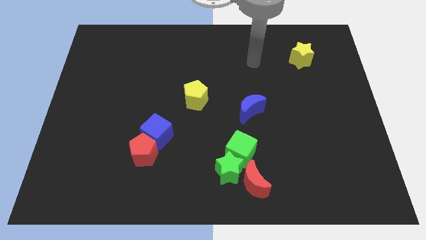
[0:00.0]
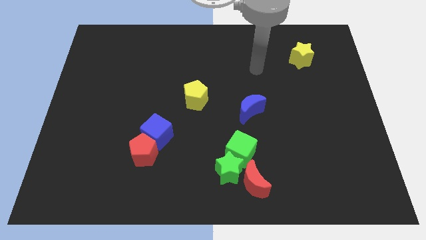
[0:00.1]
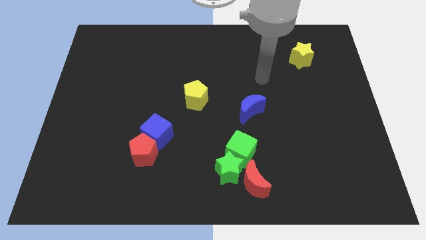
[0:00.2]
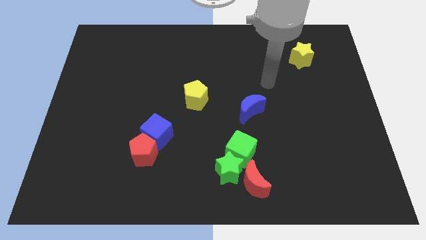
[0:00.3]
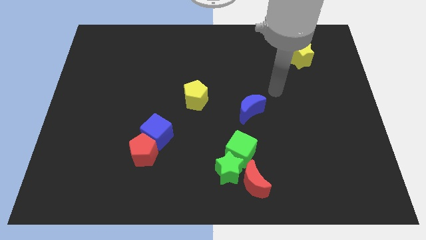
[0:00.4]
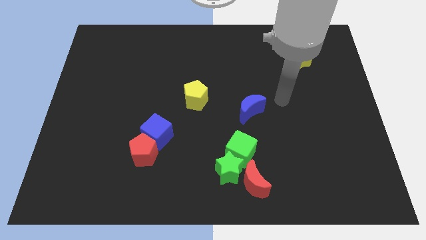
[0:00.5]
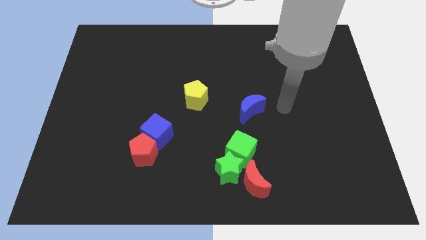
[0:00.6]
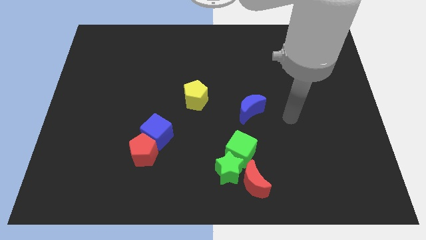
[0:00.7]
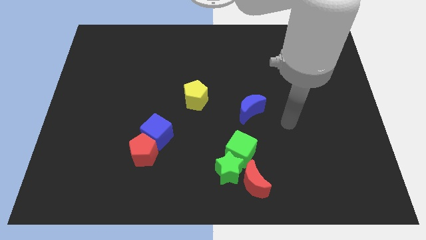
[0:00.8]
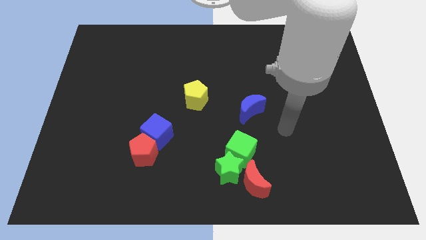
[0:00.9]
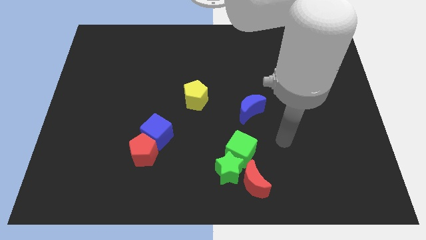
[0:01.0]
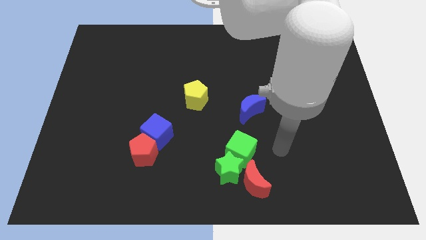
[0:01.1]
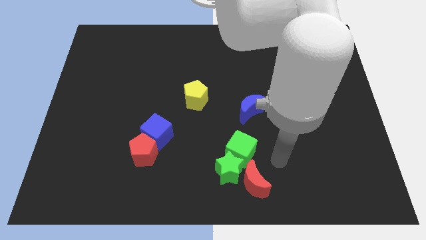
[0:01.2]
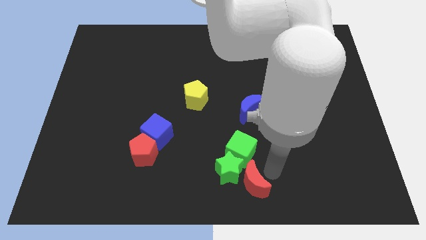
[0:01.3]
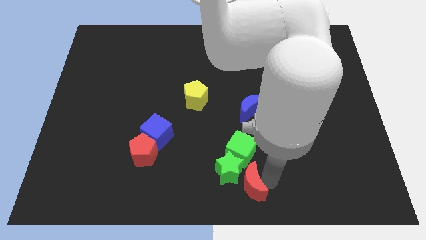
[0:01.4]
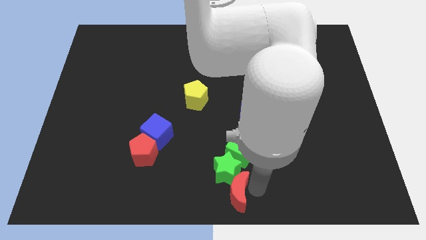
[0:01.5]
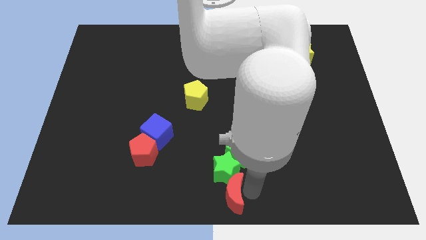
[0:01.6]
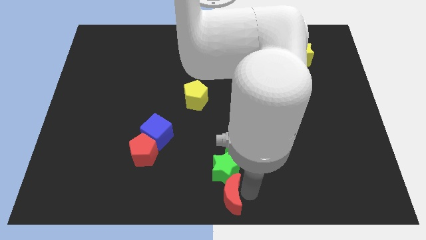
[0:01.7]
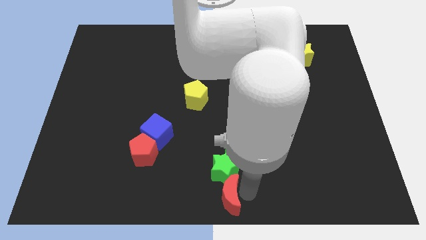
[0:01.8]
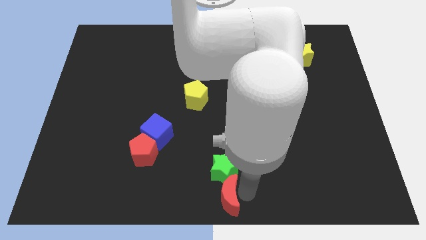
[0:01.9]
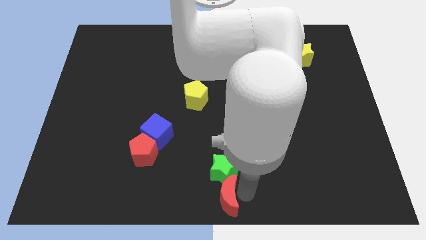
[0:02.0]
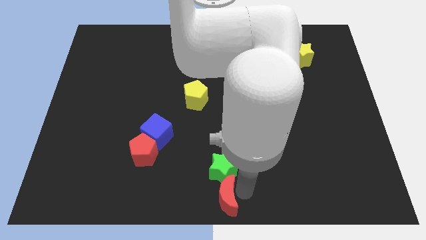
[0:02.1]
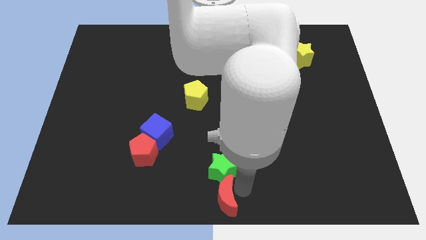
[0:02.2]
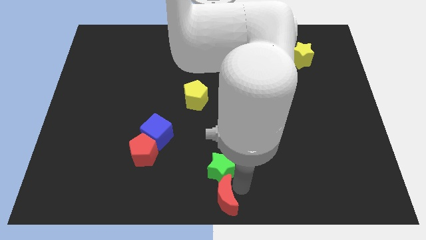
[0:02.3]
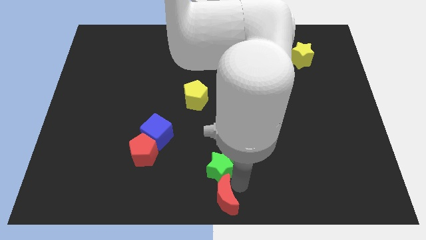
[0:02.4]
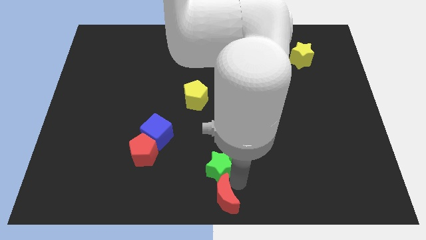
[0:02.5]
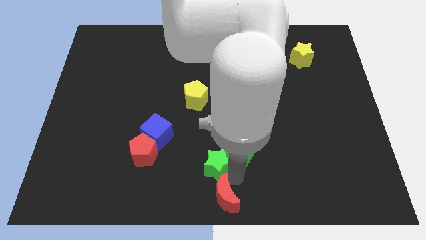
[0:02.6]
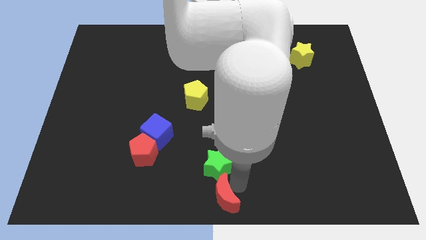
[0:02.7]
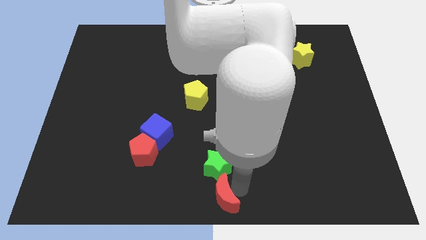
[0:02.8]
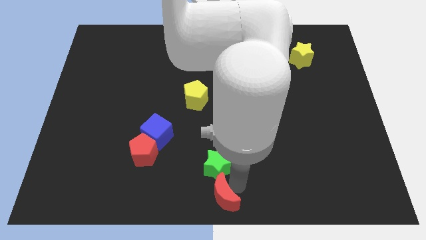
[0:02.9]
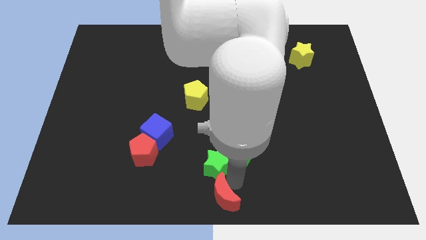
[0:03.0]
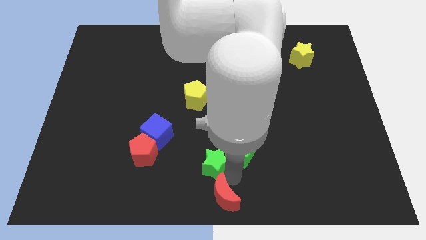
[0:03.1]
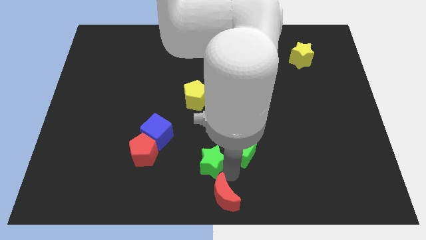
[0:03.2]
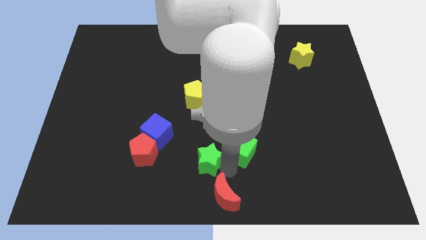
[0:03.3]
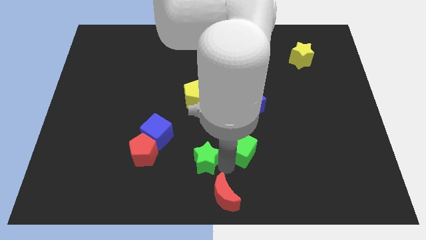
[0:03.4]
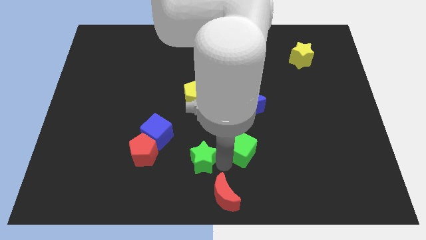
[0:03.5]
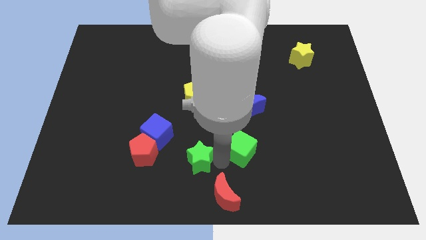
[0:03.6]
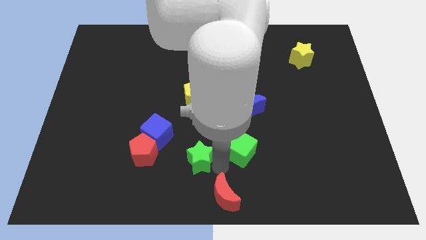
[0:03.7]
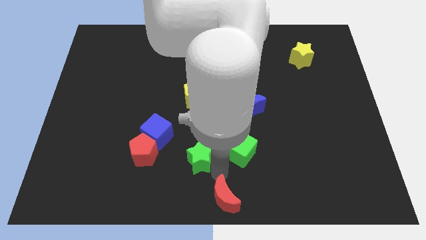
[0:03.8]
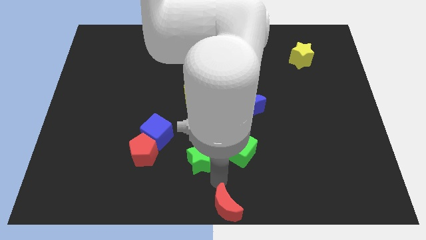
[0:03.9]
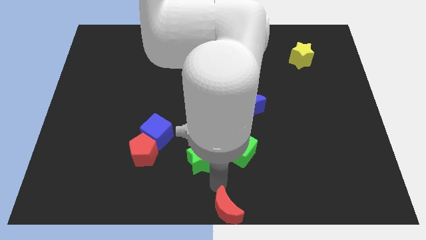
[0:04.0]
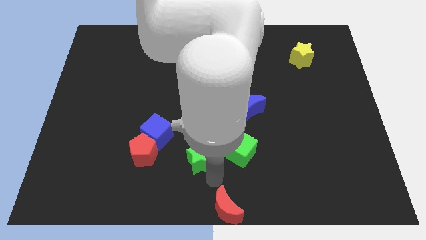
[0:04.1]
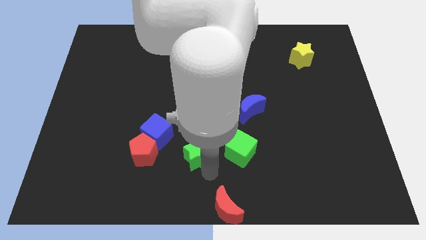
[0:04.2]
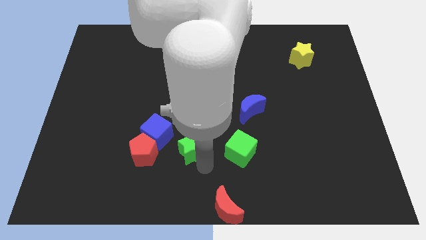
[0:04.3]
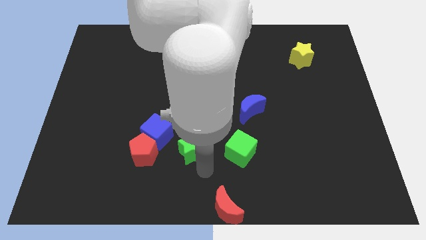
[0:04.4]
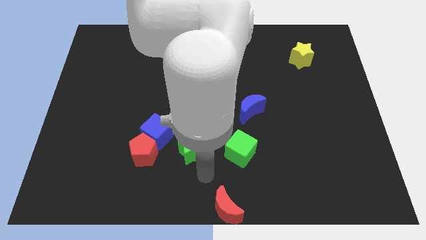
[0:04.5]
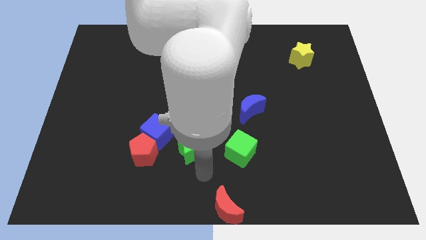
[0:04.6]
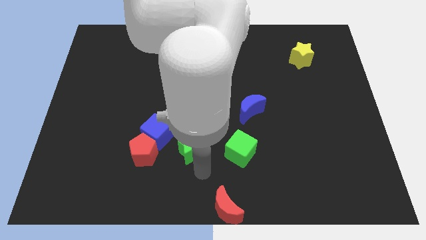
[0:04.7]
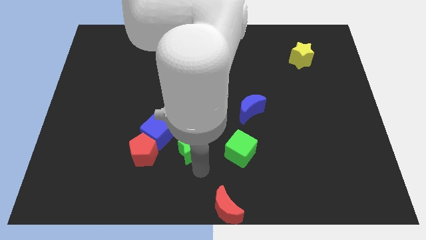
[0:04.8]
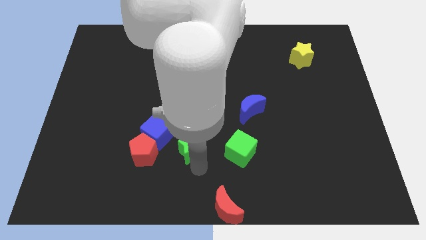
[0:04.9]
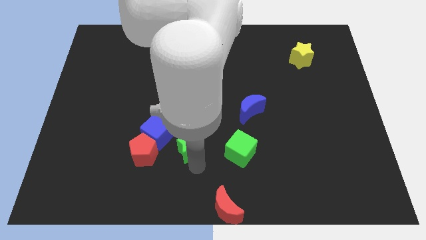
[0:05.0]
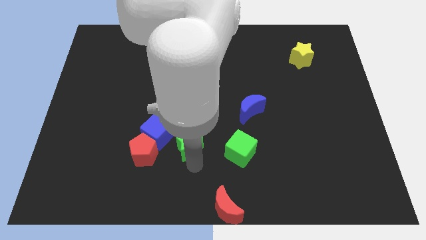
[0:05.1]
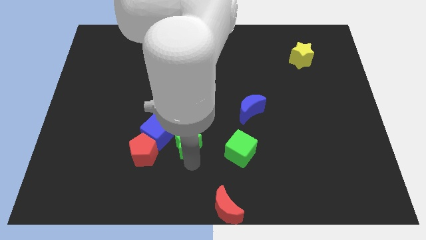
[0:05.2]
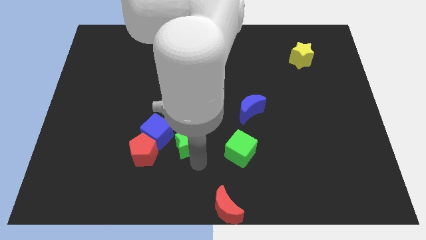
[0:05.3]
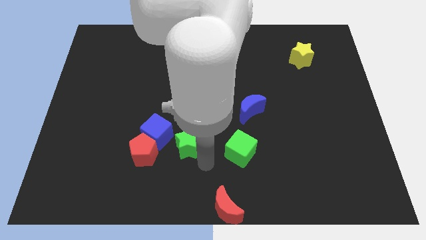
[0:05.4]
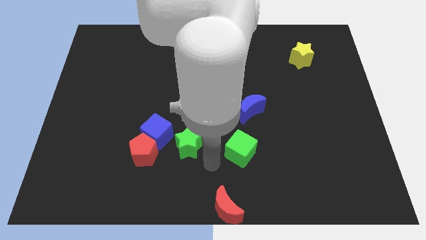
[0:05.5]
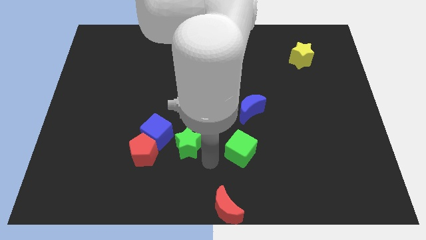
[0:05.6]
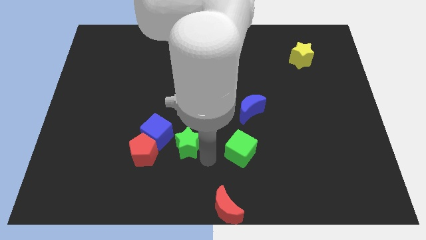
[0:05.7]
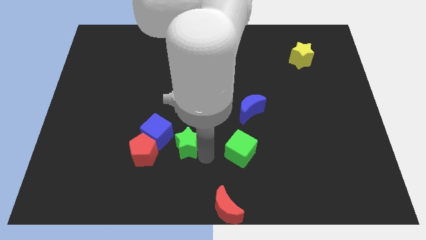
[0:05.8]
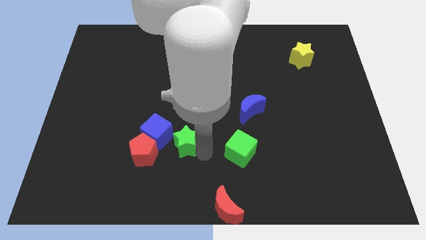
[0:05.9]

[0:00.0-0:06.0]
push the green star diagonally up and to the right of the red pentagon

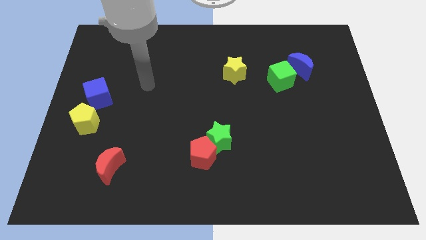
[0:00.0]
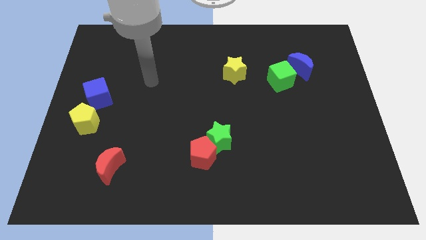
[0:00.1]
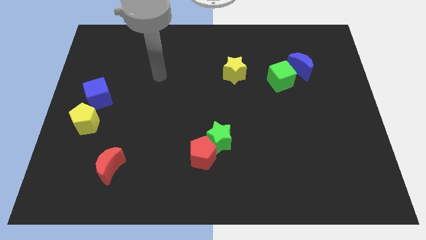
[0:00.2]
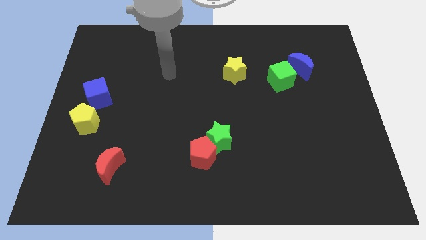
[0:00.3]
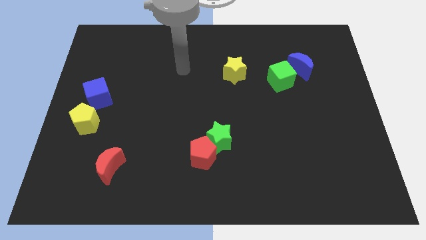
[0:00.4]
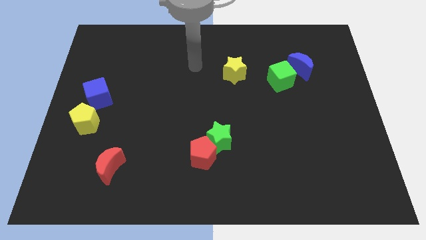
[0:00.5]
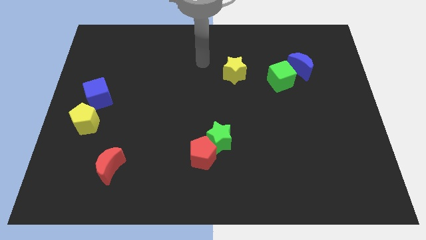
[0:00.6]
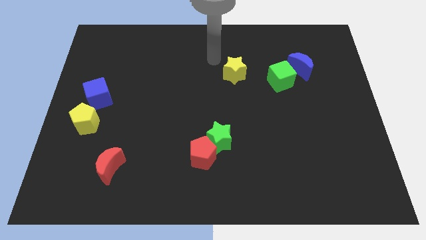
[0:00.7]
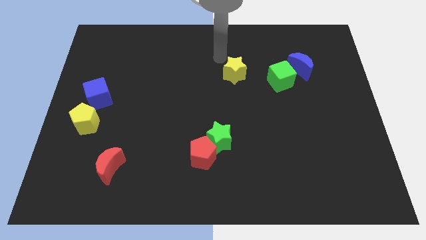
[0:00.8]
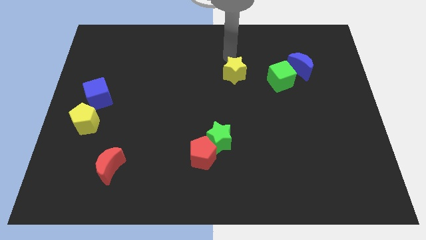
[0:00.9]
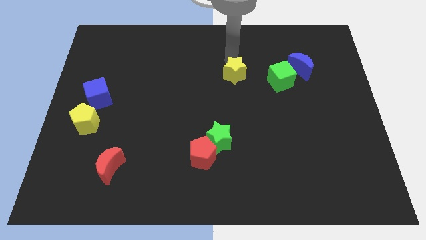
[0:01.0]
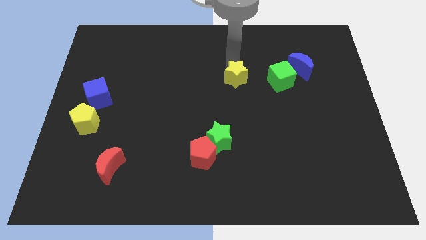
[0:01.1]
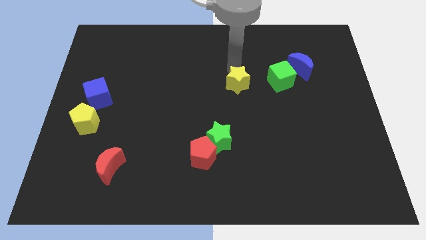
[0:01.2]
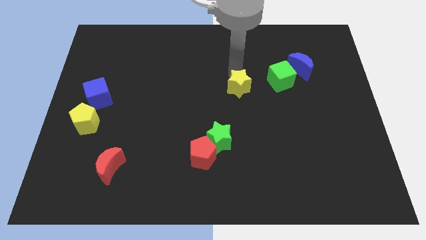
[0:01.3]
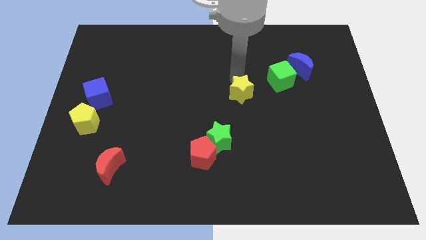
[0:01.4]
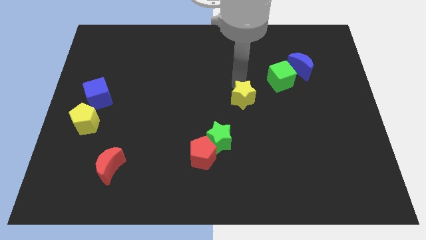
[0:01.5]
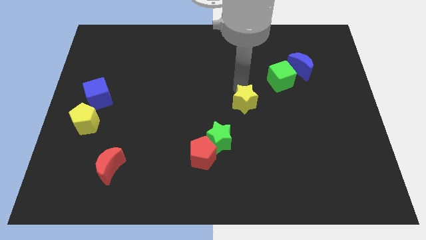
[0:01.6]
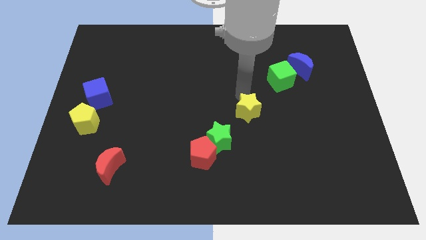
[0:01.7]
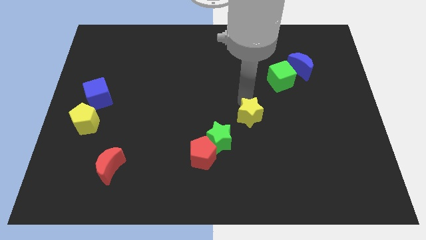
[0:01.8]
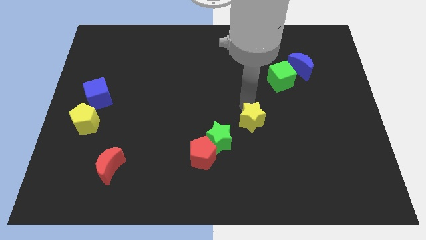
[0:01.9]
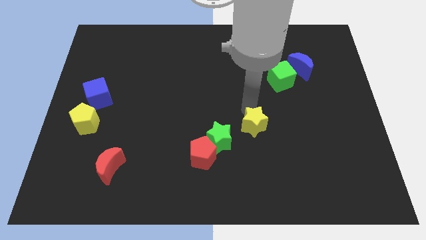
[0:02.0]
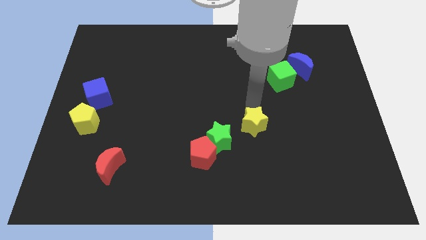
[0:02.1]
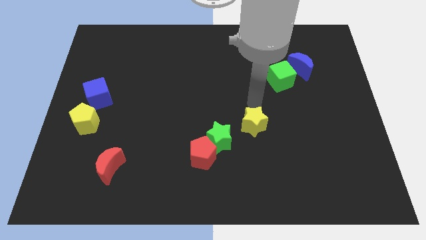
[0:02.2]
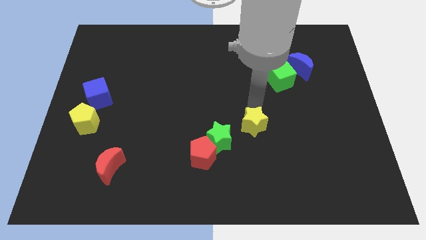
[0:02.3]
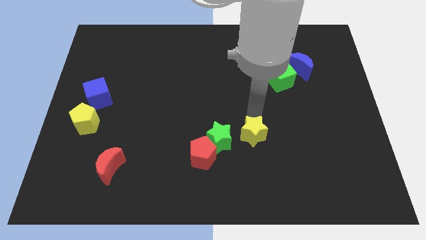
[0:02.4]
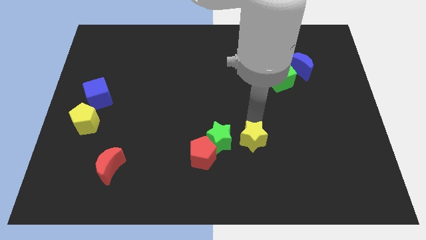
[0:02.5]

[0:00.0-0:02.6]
push the yellow star right of the red pentagon
